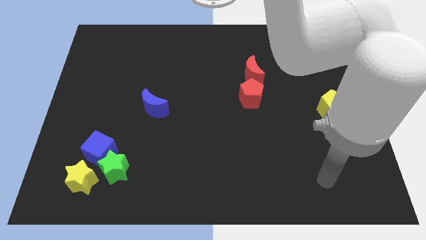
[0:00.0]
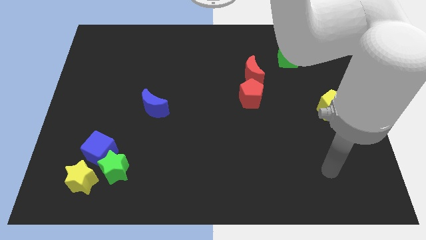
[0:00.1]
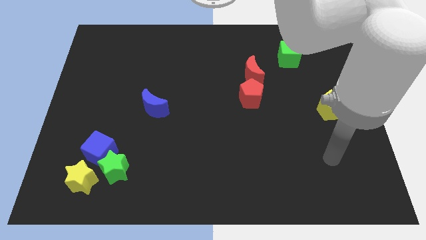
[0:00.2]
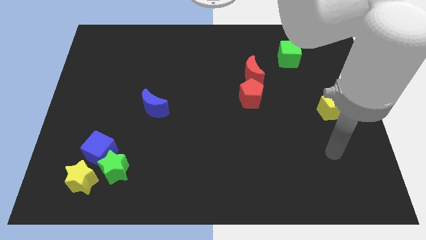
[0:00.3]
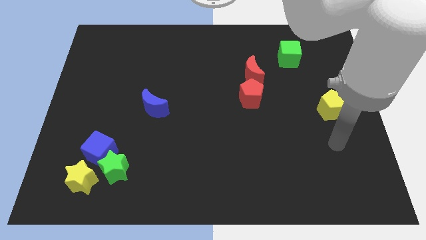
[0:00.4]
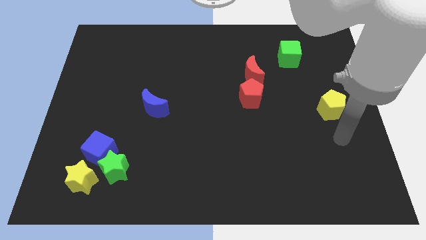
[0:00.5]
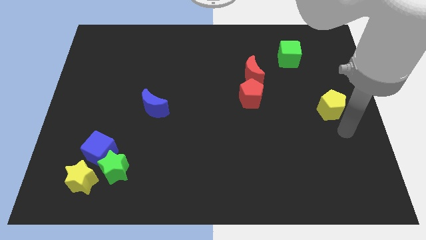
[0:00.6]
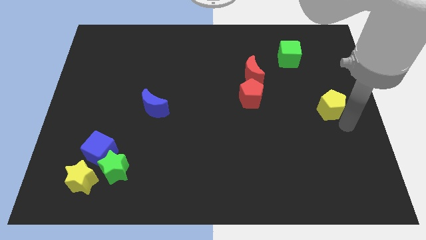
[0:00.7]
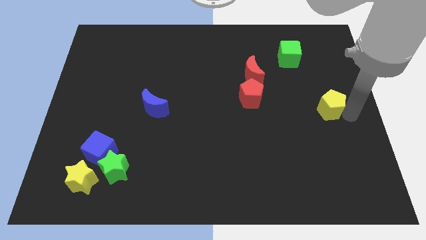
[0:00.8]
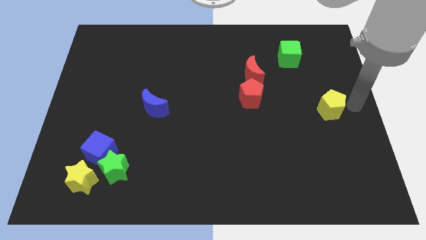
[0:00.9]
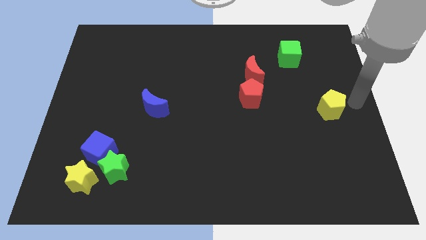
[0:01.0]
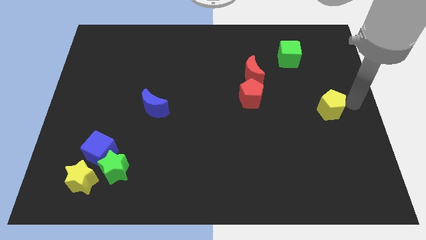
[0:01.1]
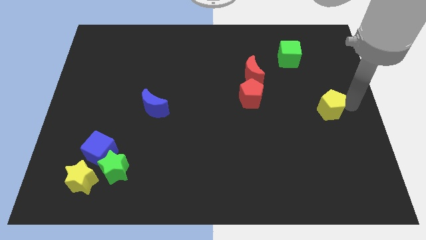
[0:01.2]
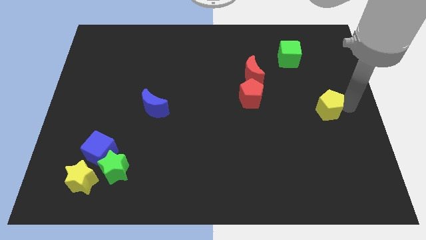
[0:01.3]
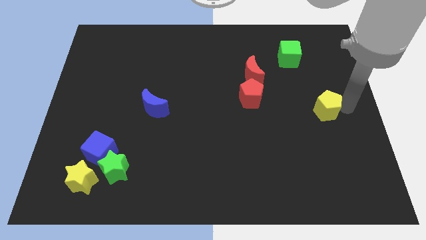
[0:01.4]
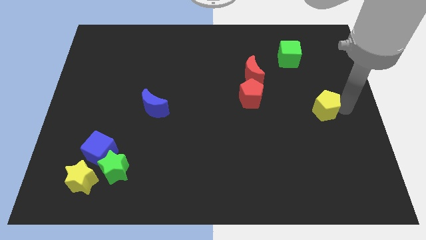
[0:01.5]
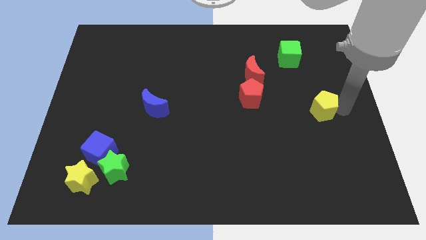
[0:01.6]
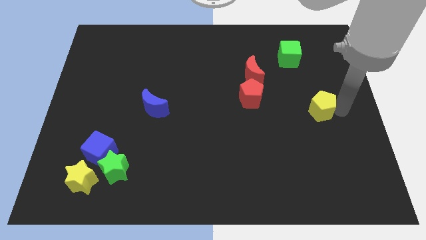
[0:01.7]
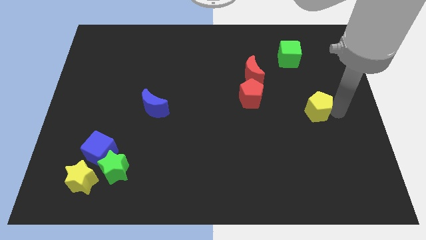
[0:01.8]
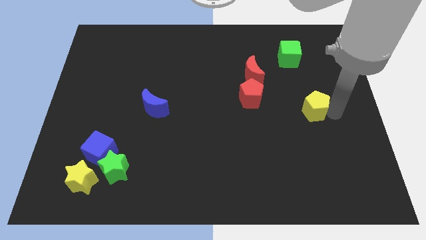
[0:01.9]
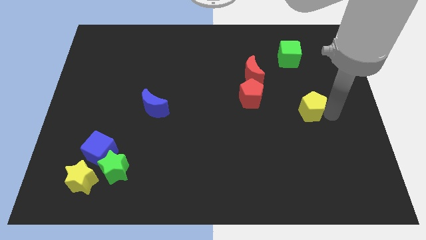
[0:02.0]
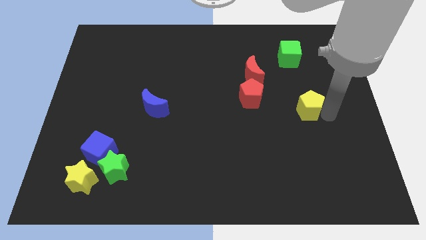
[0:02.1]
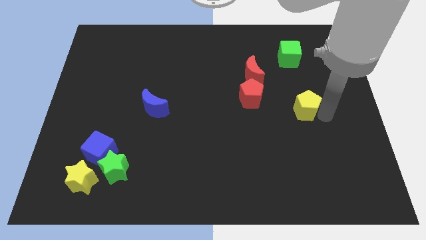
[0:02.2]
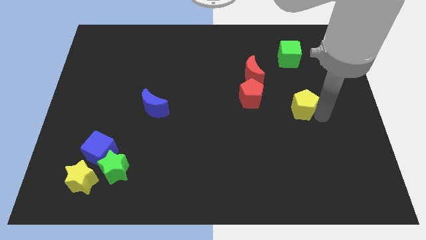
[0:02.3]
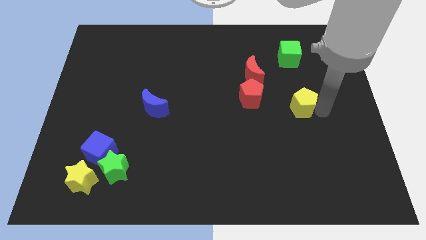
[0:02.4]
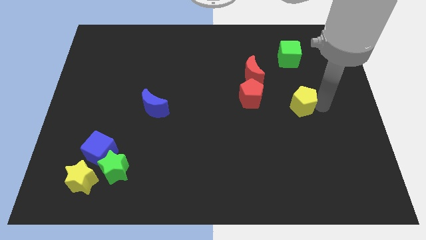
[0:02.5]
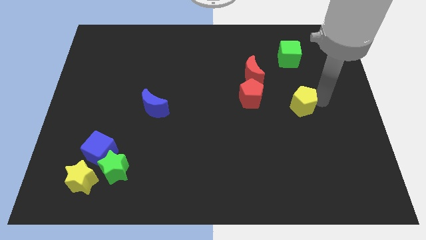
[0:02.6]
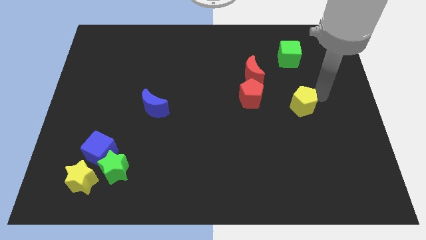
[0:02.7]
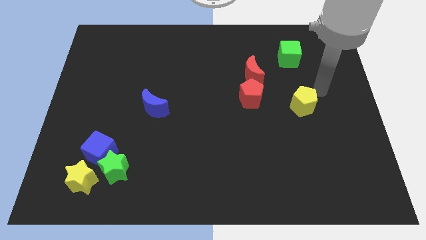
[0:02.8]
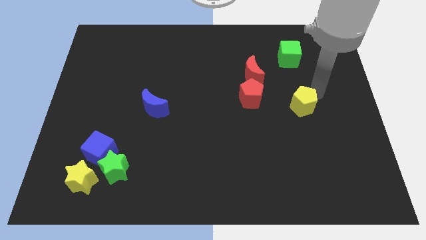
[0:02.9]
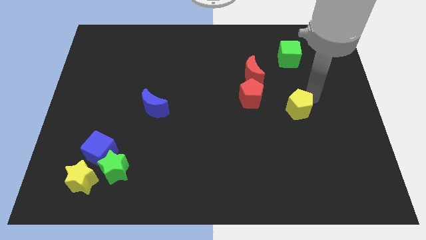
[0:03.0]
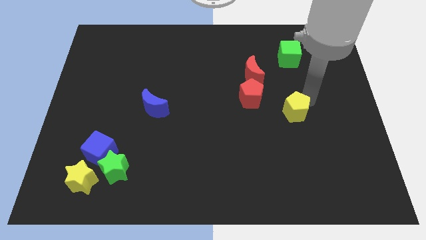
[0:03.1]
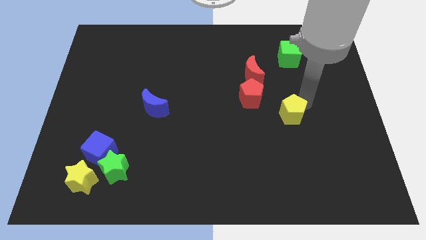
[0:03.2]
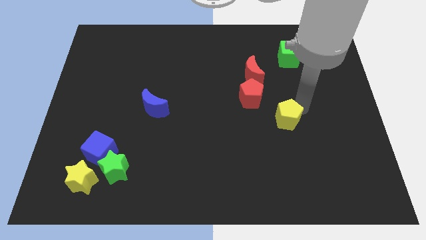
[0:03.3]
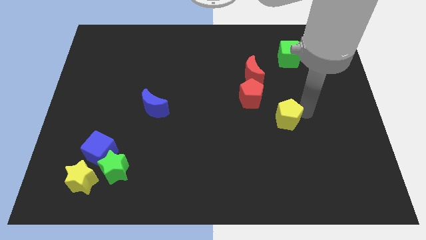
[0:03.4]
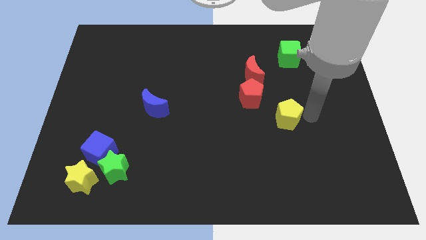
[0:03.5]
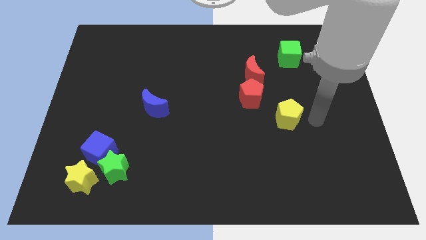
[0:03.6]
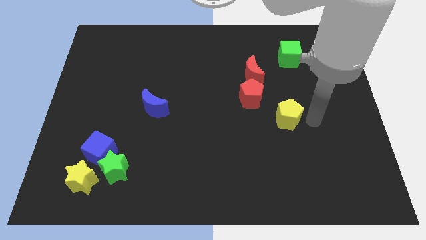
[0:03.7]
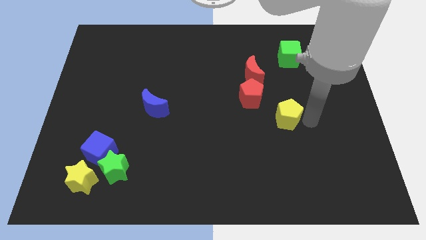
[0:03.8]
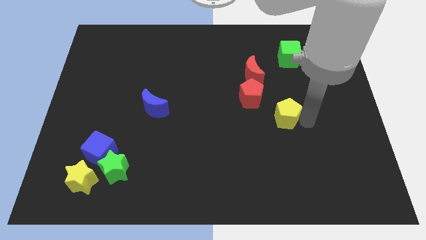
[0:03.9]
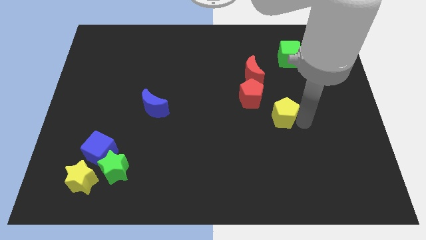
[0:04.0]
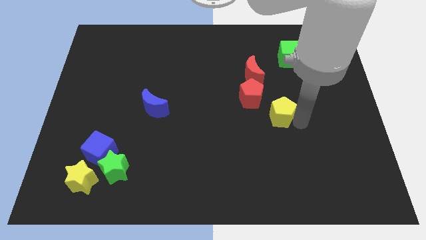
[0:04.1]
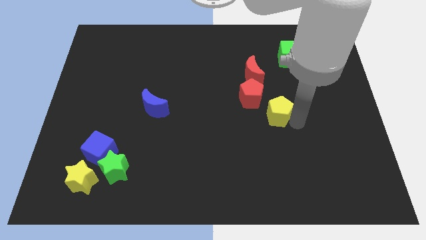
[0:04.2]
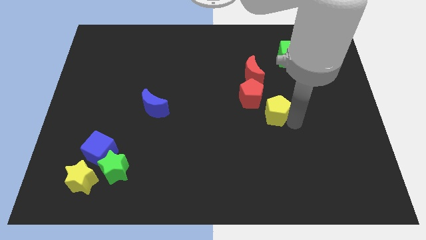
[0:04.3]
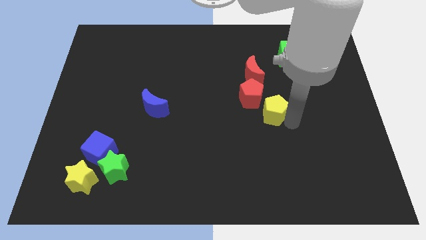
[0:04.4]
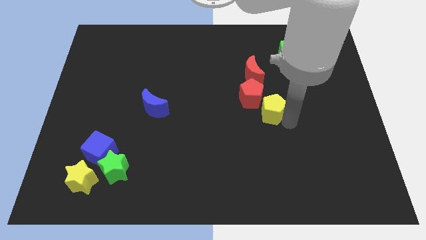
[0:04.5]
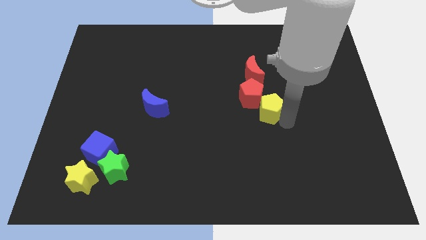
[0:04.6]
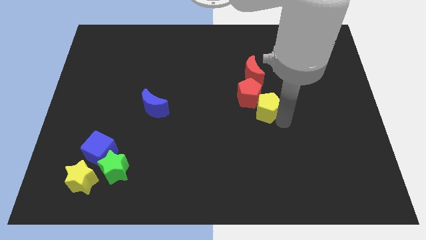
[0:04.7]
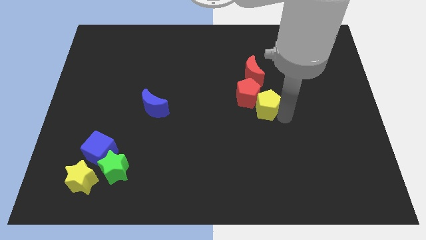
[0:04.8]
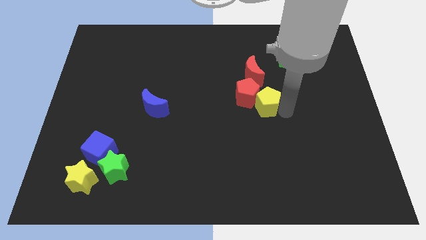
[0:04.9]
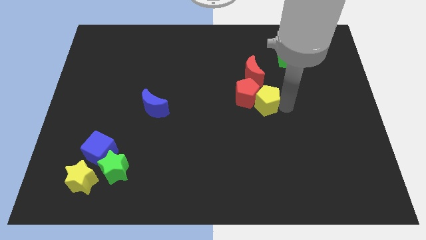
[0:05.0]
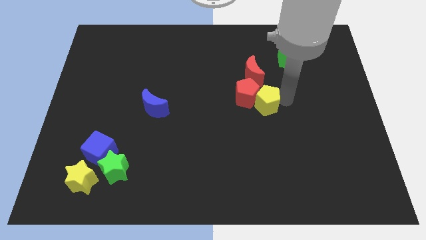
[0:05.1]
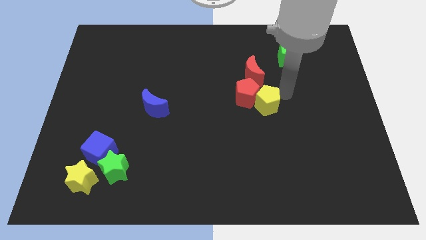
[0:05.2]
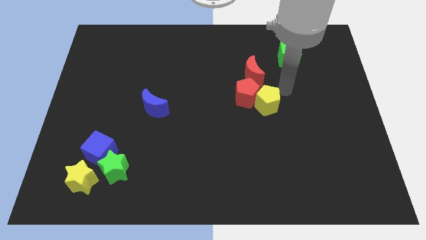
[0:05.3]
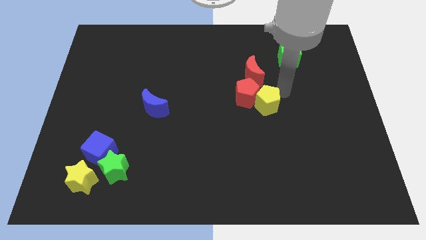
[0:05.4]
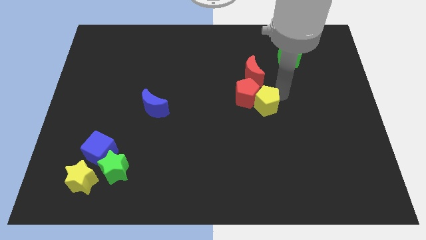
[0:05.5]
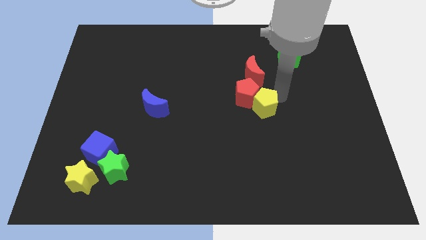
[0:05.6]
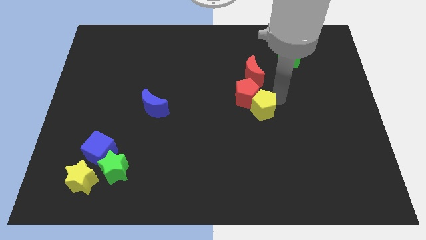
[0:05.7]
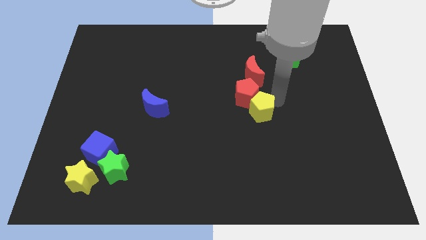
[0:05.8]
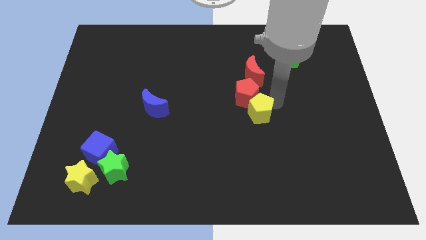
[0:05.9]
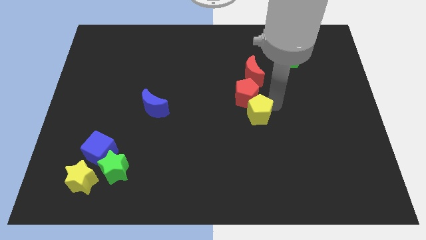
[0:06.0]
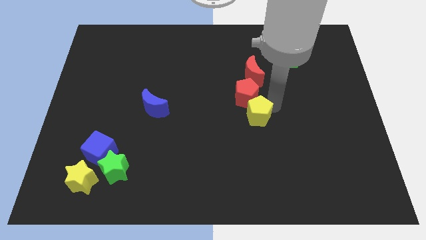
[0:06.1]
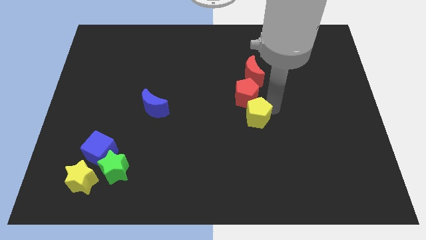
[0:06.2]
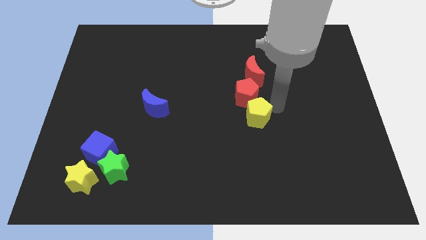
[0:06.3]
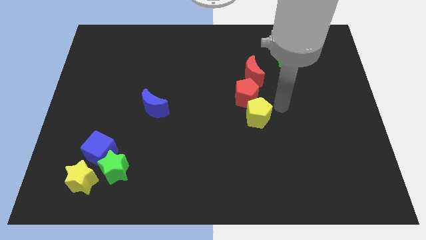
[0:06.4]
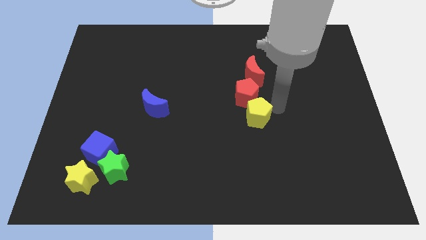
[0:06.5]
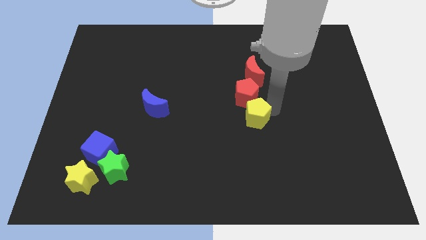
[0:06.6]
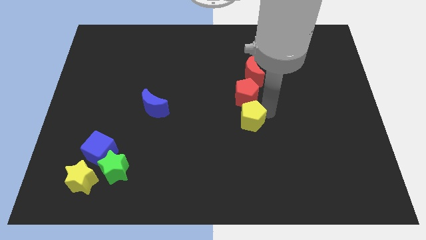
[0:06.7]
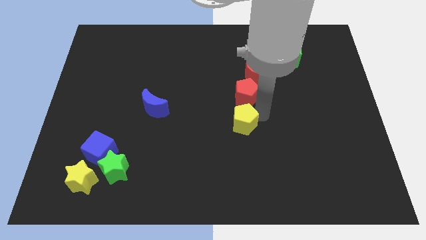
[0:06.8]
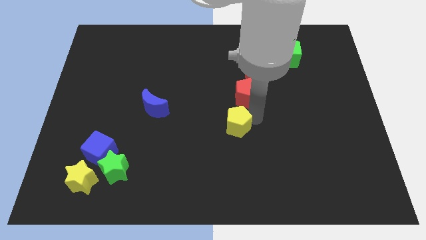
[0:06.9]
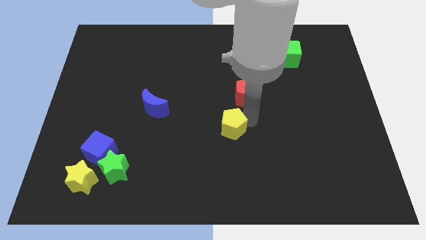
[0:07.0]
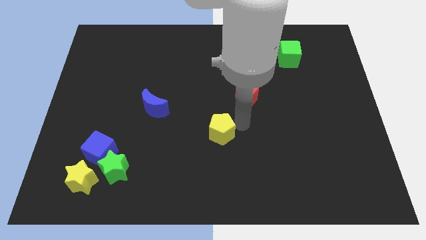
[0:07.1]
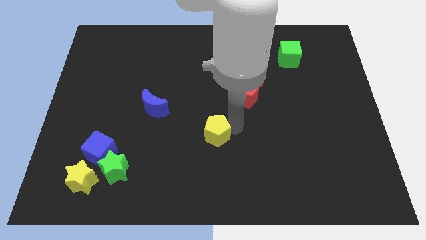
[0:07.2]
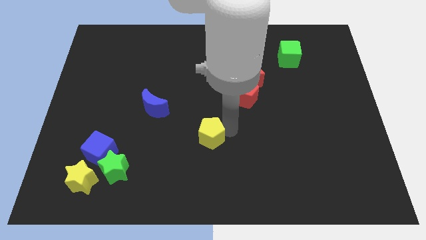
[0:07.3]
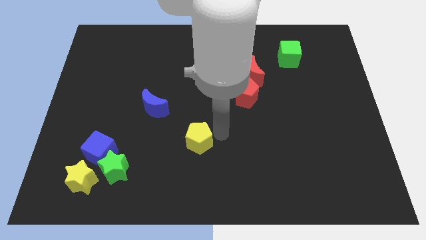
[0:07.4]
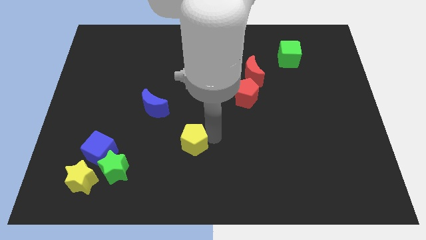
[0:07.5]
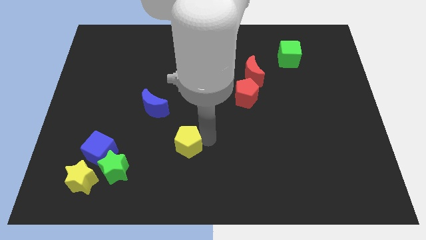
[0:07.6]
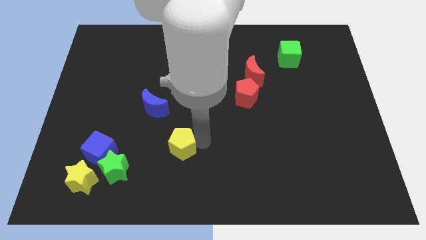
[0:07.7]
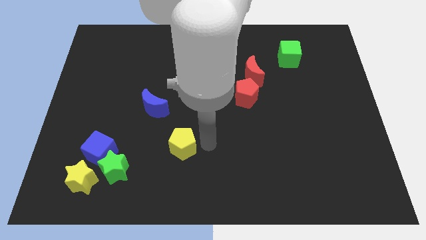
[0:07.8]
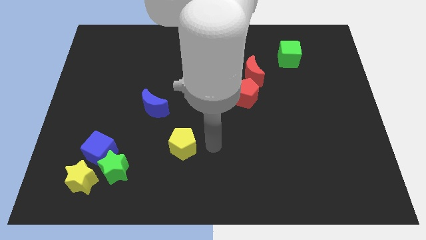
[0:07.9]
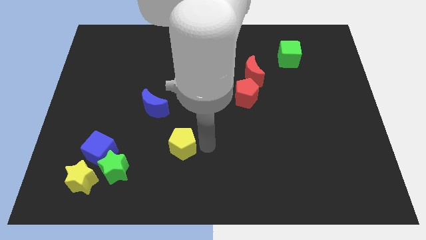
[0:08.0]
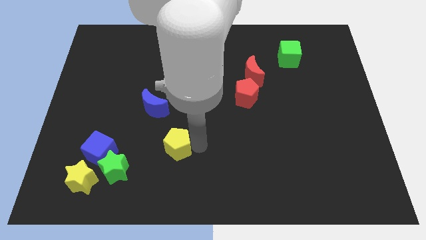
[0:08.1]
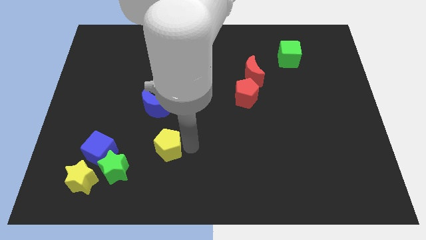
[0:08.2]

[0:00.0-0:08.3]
move the yellow pentagon to the bottom side of the blue moon
